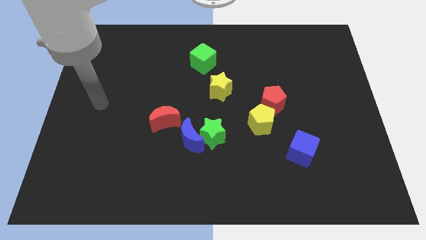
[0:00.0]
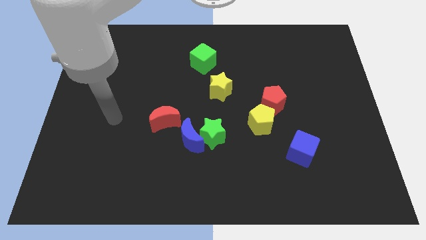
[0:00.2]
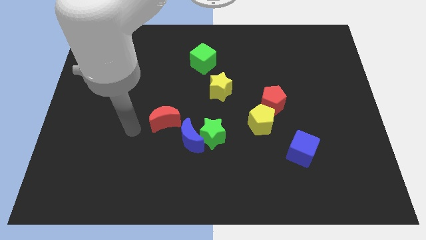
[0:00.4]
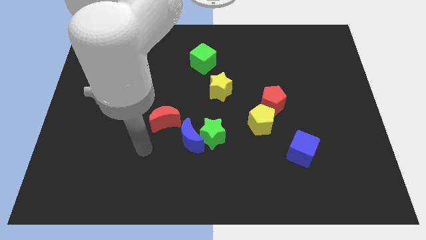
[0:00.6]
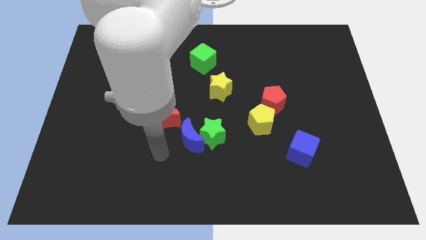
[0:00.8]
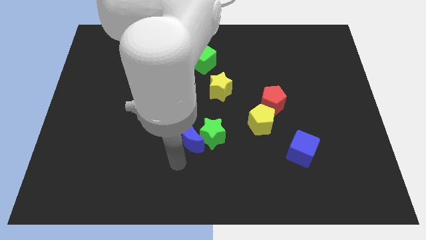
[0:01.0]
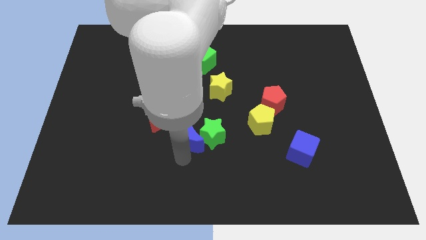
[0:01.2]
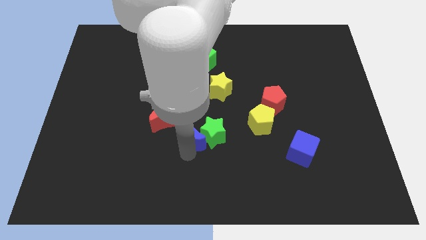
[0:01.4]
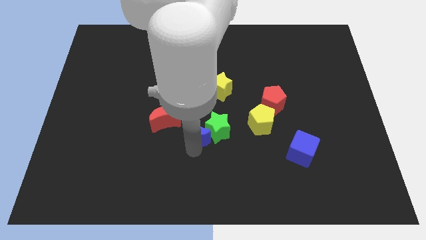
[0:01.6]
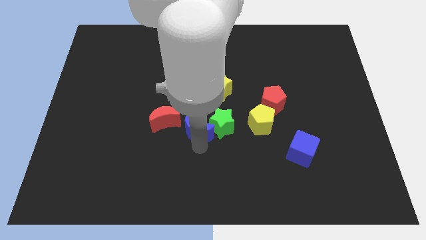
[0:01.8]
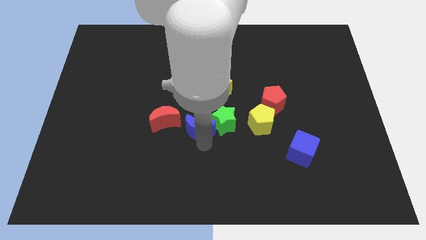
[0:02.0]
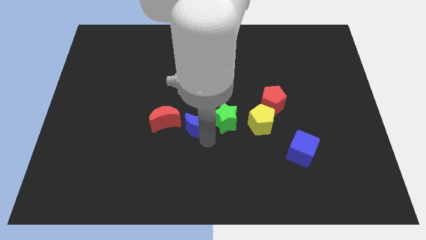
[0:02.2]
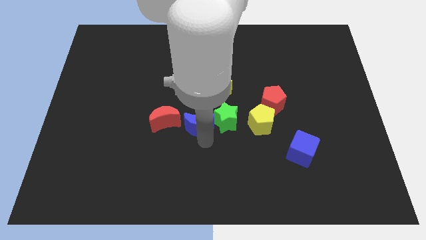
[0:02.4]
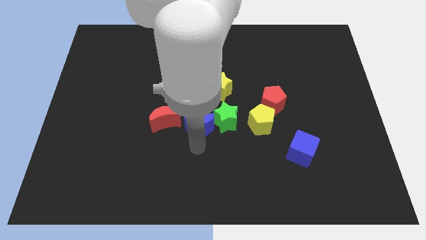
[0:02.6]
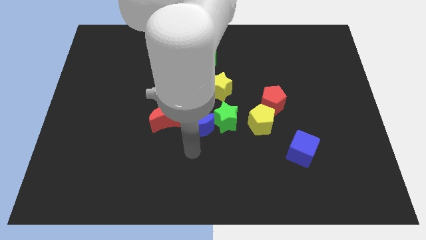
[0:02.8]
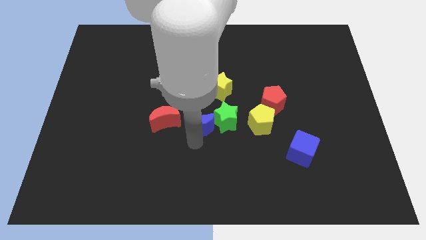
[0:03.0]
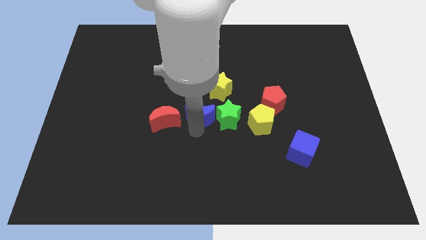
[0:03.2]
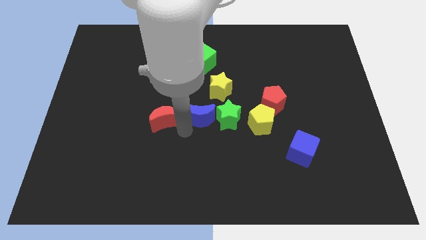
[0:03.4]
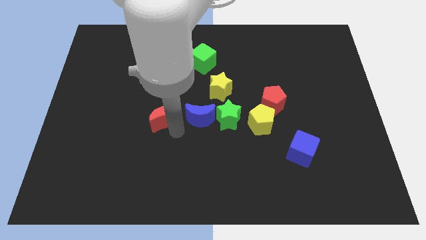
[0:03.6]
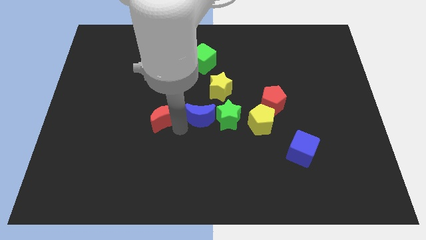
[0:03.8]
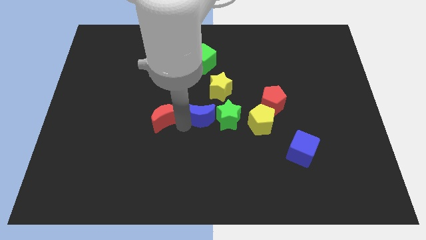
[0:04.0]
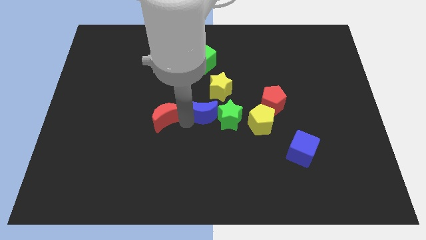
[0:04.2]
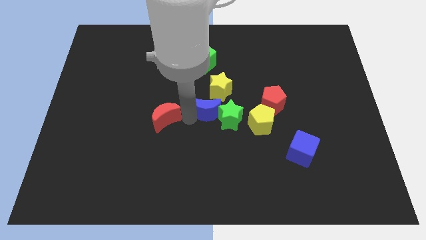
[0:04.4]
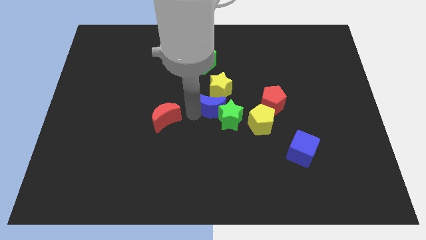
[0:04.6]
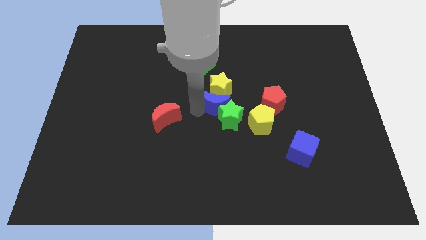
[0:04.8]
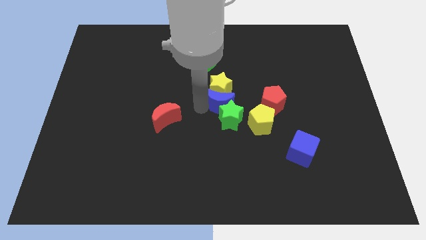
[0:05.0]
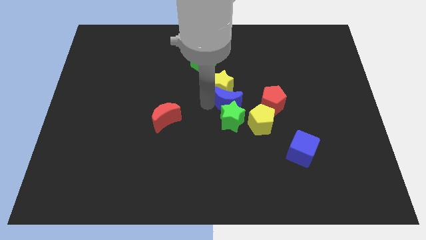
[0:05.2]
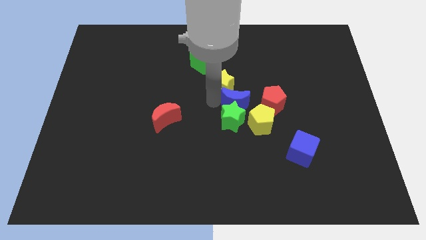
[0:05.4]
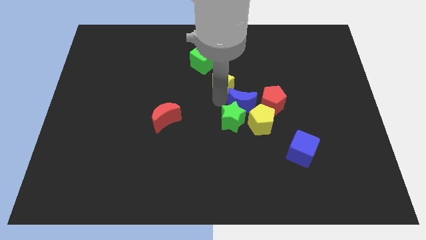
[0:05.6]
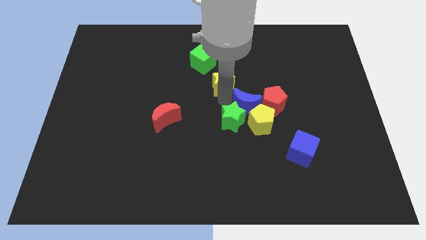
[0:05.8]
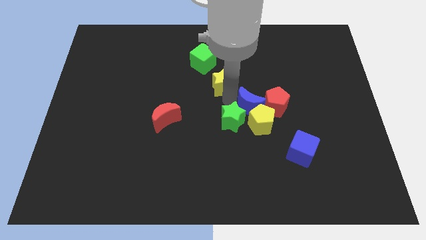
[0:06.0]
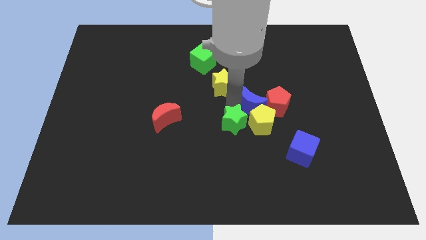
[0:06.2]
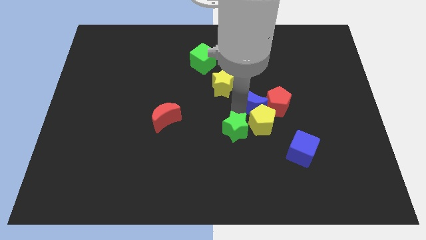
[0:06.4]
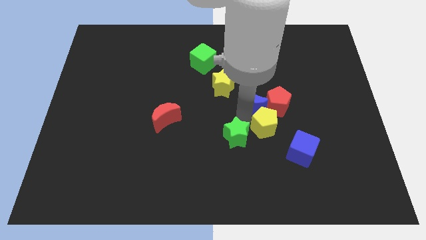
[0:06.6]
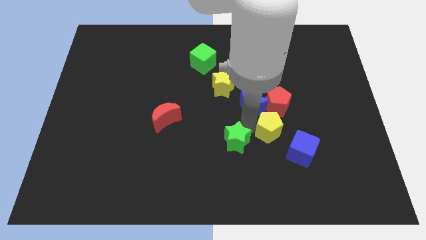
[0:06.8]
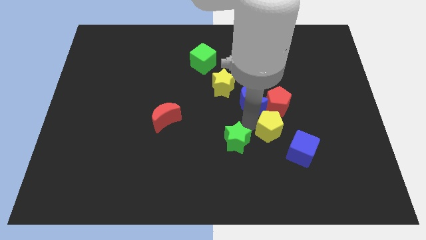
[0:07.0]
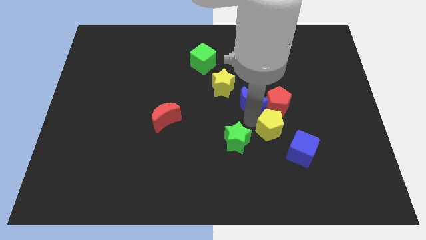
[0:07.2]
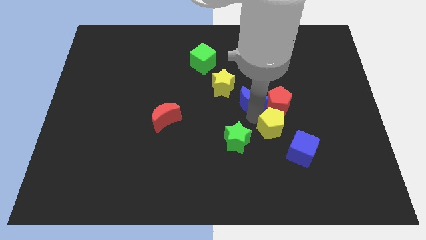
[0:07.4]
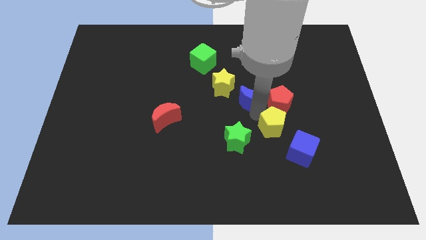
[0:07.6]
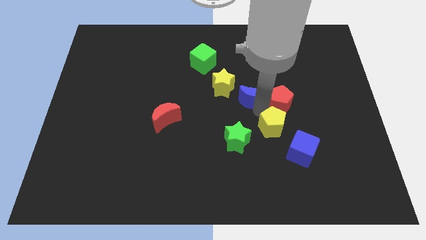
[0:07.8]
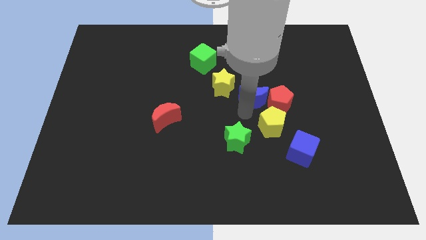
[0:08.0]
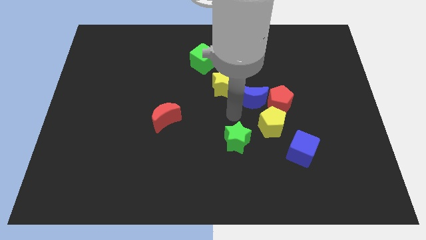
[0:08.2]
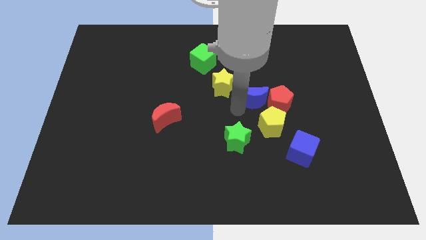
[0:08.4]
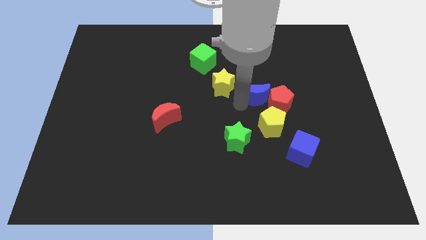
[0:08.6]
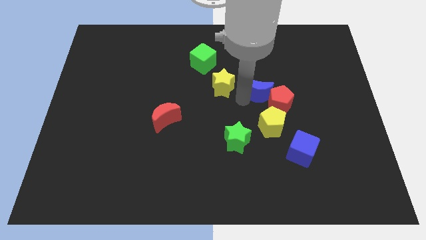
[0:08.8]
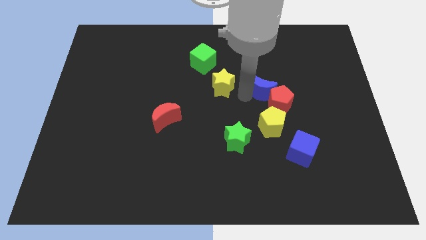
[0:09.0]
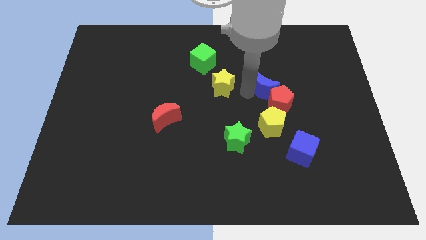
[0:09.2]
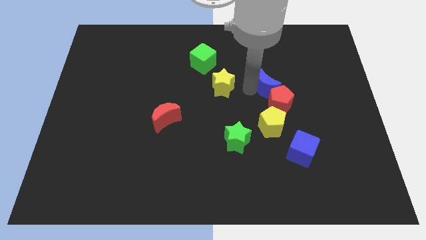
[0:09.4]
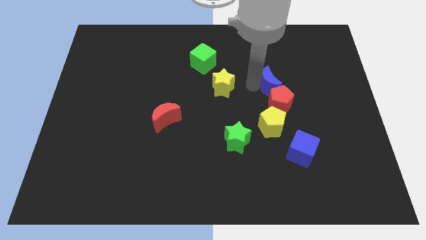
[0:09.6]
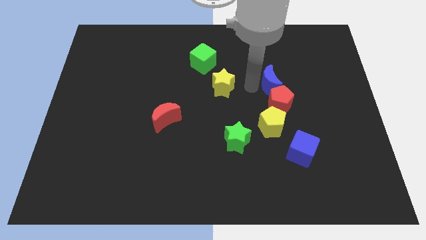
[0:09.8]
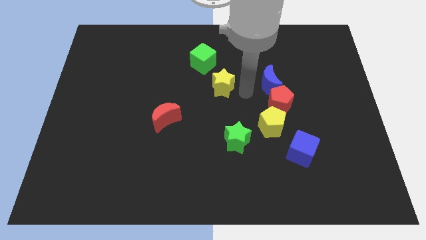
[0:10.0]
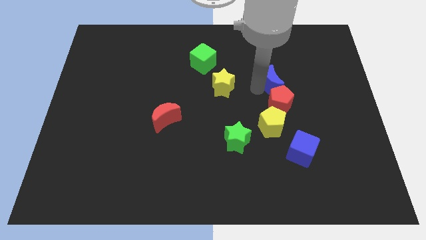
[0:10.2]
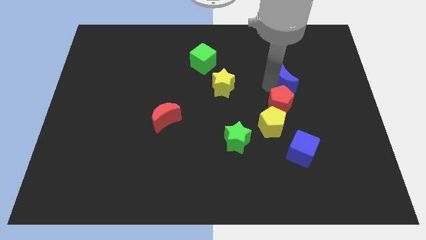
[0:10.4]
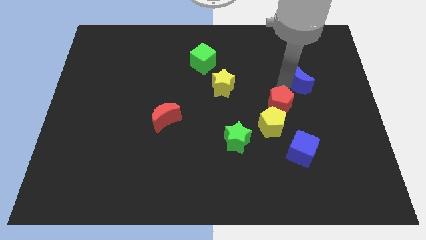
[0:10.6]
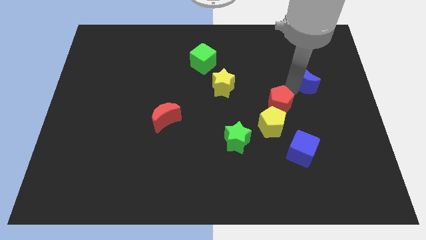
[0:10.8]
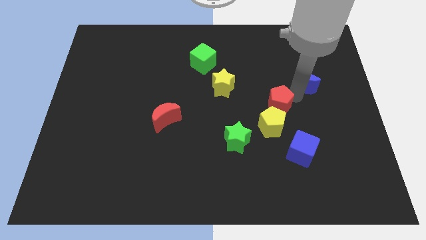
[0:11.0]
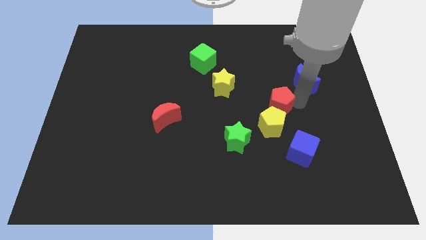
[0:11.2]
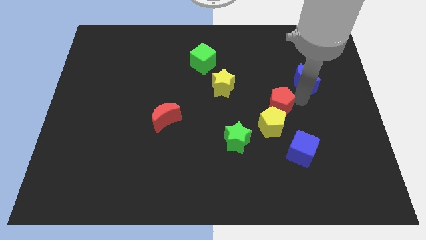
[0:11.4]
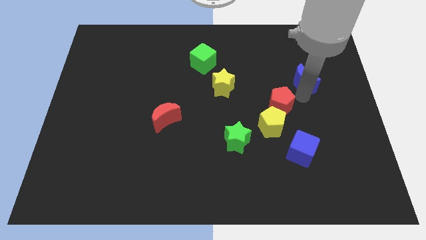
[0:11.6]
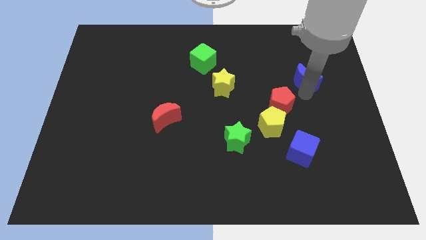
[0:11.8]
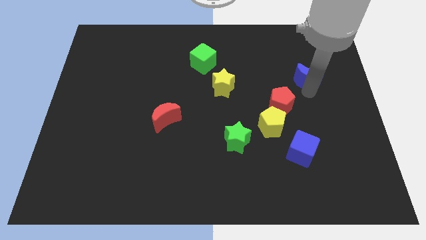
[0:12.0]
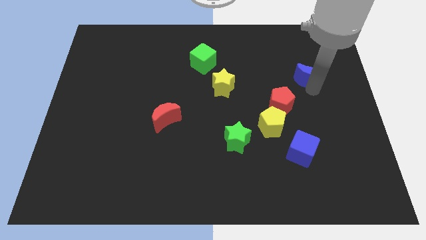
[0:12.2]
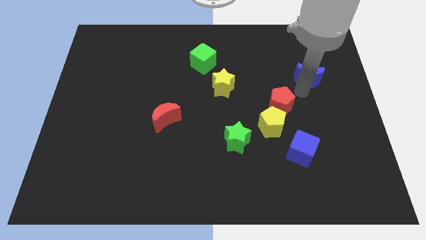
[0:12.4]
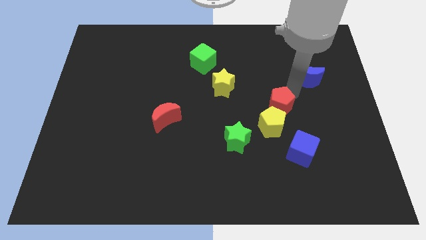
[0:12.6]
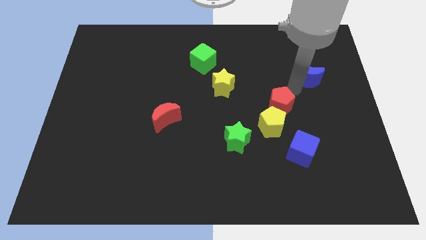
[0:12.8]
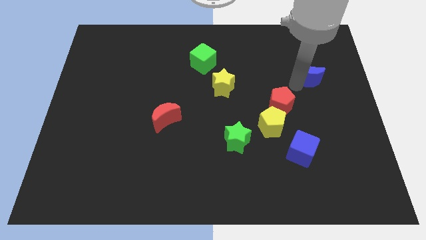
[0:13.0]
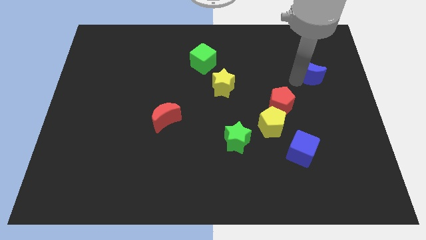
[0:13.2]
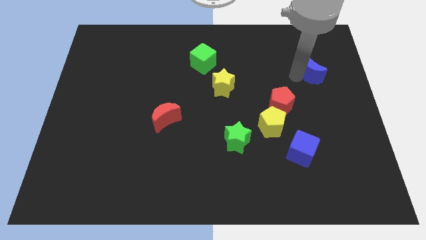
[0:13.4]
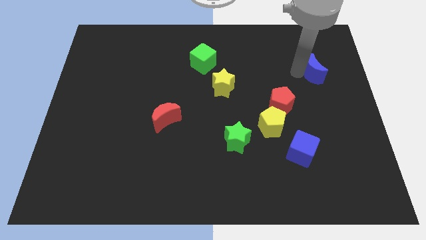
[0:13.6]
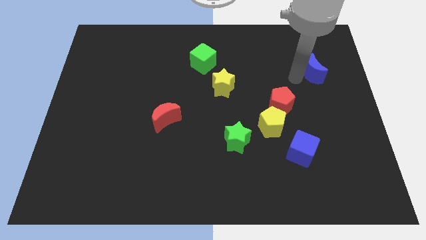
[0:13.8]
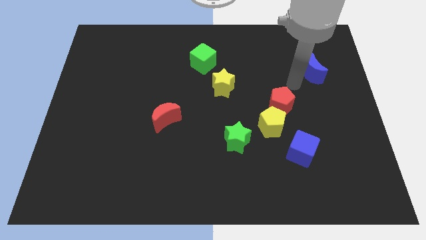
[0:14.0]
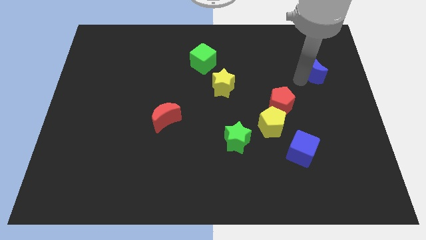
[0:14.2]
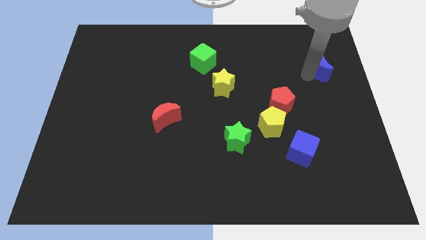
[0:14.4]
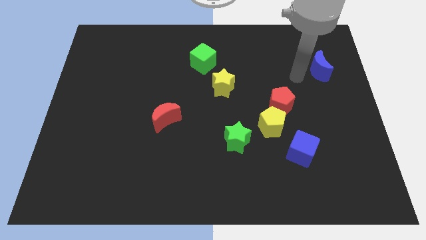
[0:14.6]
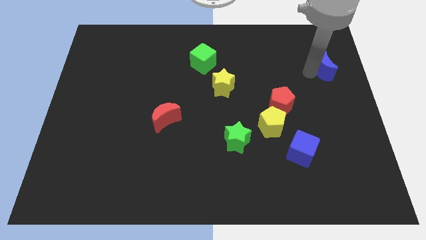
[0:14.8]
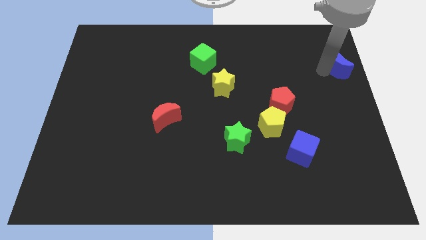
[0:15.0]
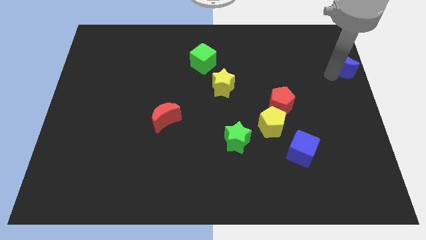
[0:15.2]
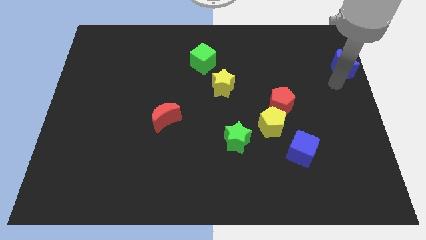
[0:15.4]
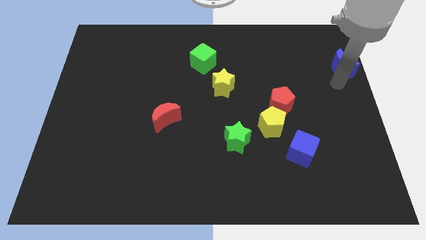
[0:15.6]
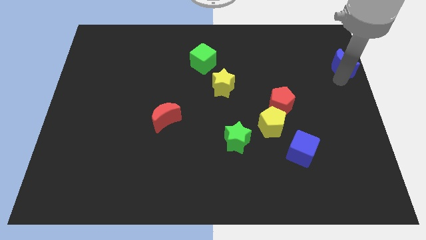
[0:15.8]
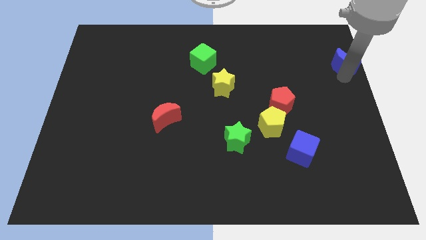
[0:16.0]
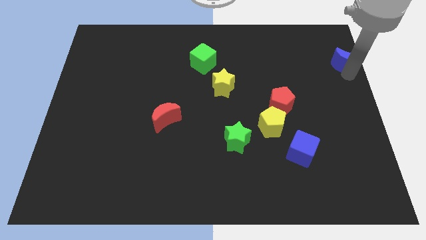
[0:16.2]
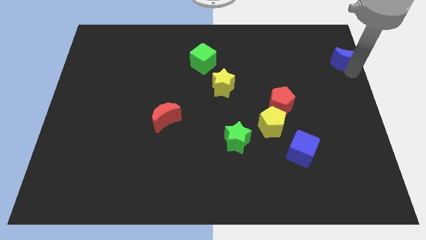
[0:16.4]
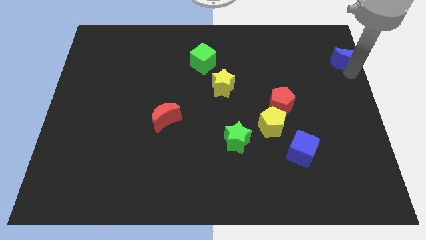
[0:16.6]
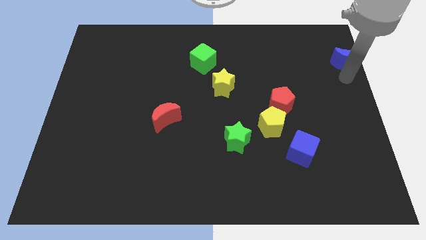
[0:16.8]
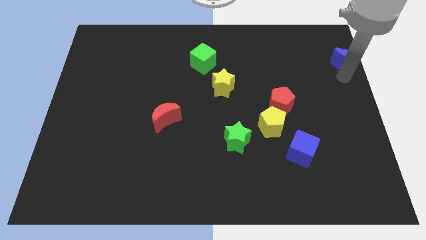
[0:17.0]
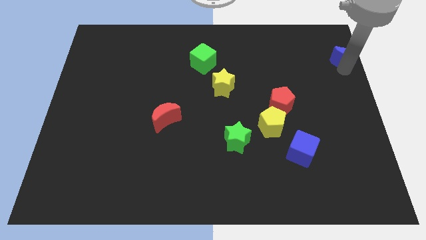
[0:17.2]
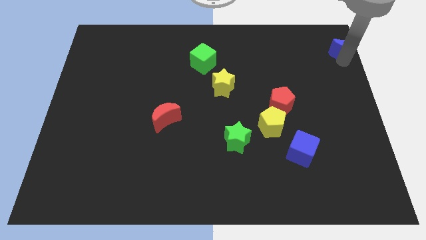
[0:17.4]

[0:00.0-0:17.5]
slide the blue moon to the top right corner
